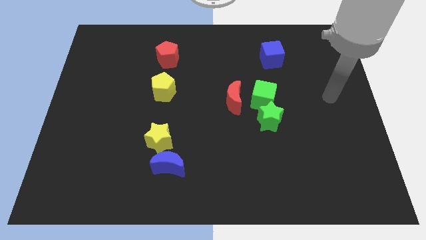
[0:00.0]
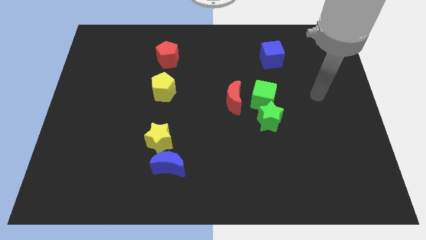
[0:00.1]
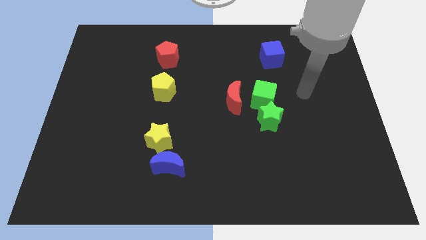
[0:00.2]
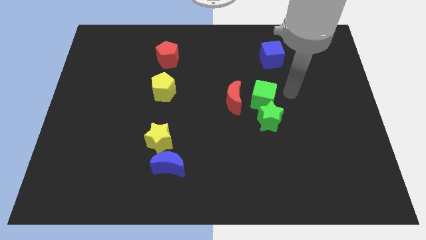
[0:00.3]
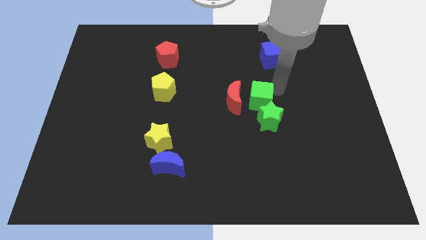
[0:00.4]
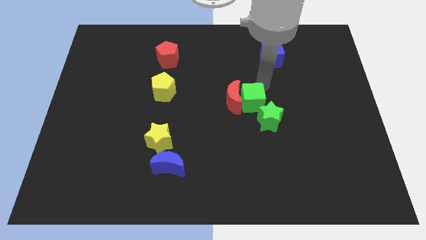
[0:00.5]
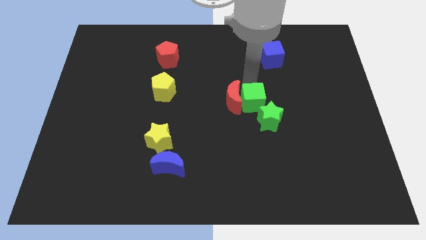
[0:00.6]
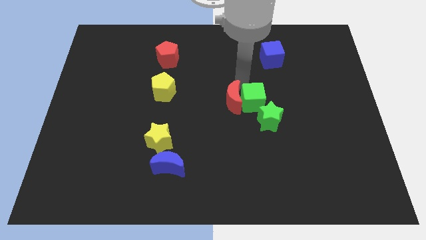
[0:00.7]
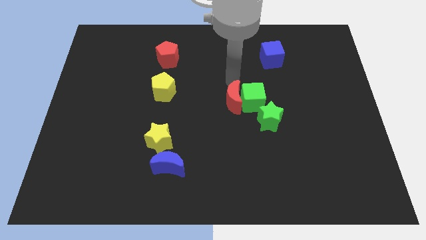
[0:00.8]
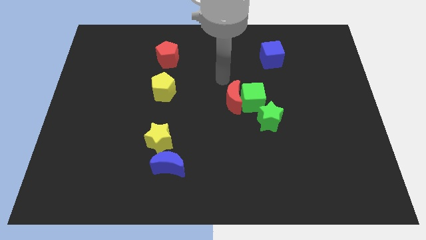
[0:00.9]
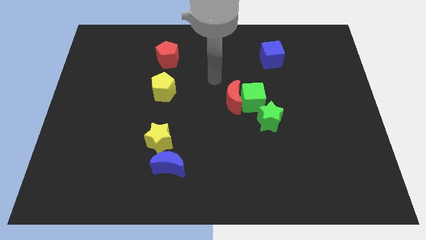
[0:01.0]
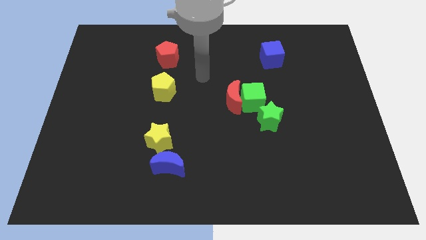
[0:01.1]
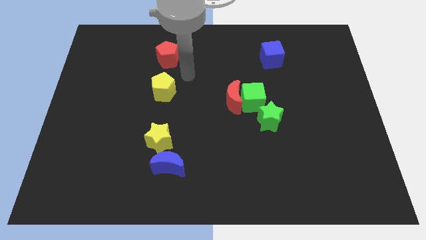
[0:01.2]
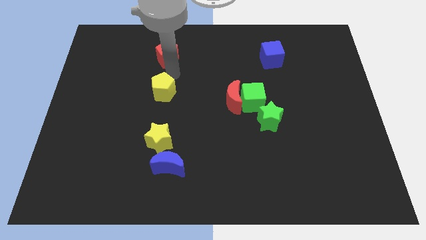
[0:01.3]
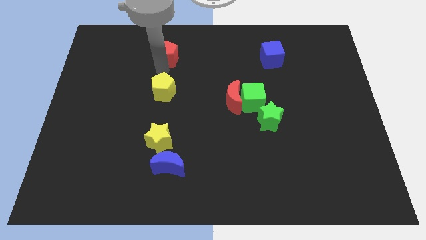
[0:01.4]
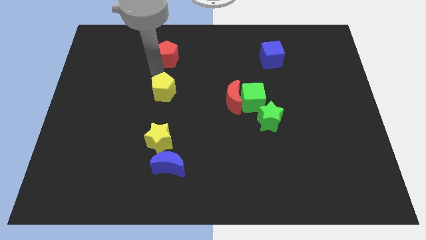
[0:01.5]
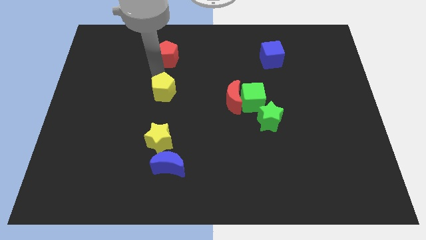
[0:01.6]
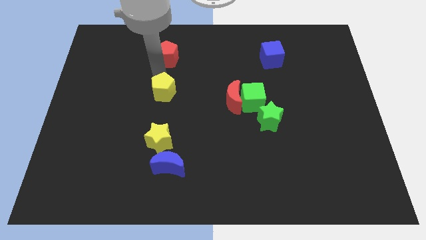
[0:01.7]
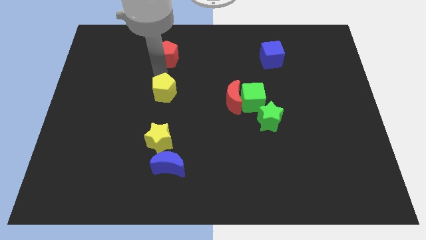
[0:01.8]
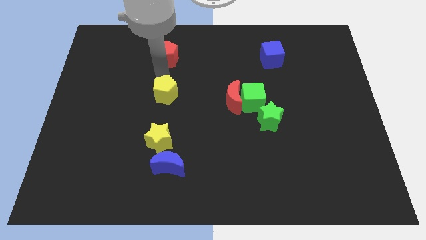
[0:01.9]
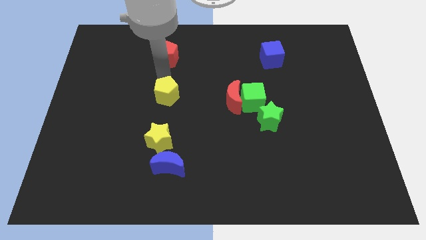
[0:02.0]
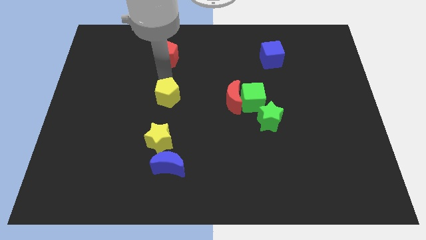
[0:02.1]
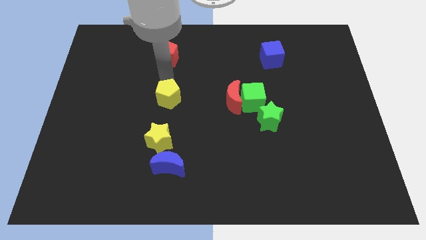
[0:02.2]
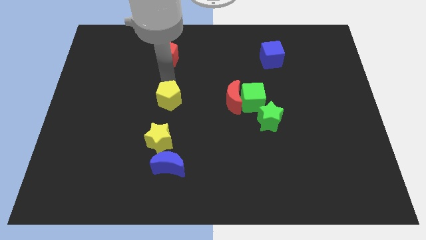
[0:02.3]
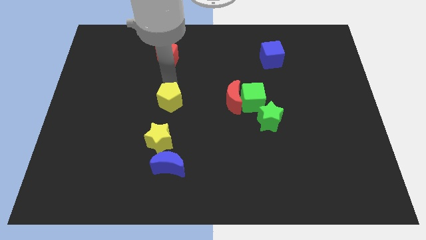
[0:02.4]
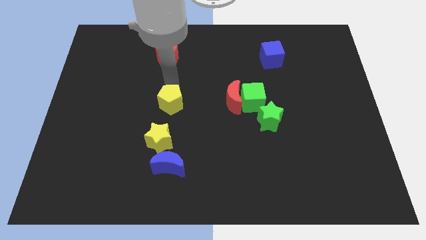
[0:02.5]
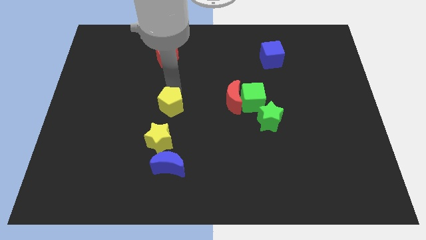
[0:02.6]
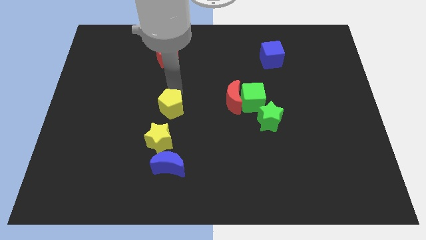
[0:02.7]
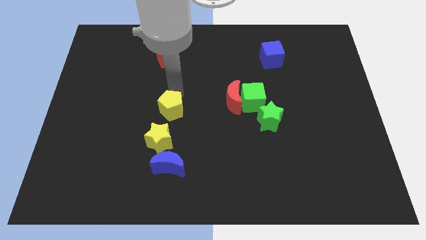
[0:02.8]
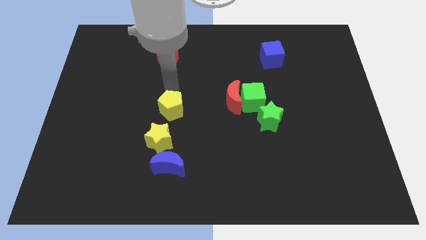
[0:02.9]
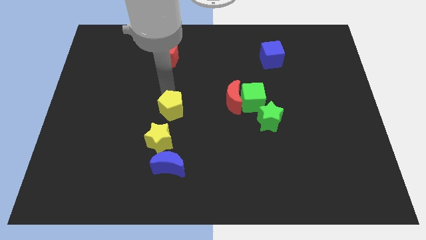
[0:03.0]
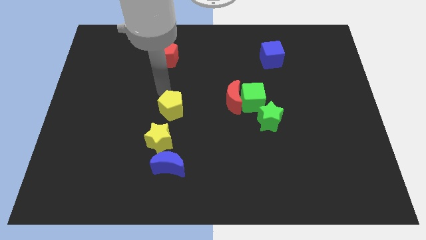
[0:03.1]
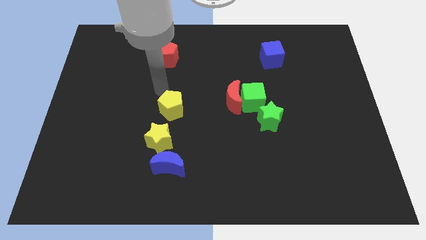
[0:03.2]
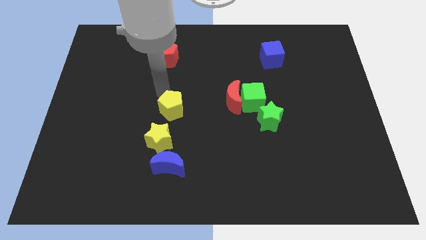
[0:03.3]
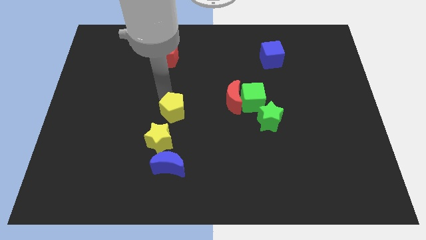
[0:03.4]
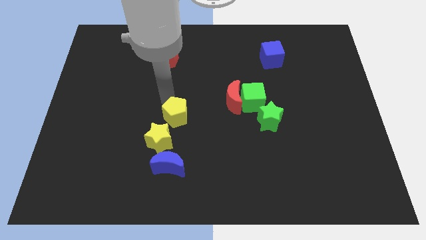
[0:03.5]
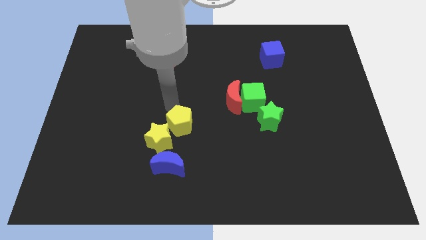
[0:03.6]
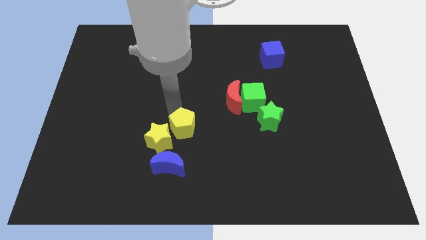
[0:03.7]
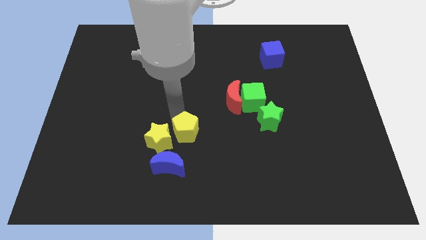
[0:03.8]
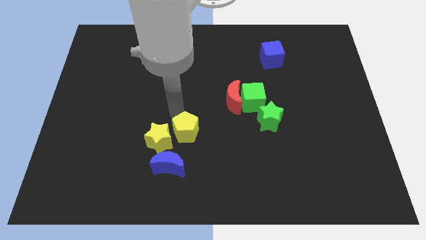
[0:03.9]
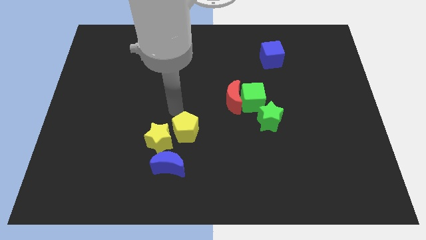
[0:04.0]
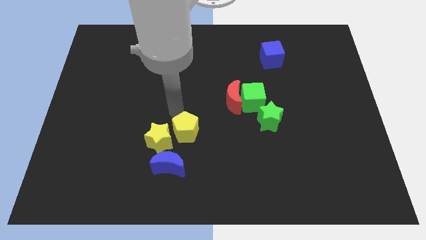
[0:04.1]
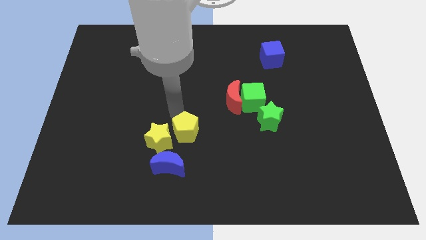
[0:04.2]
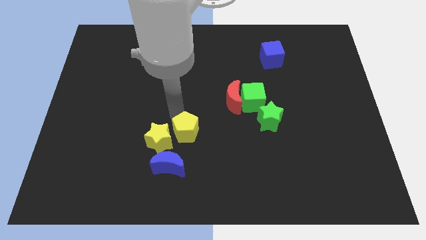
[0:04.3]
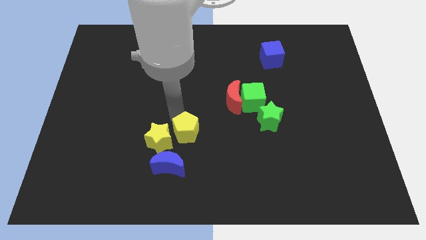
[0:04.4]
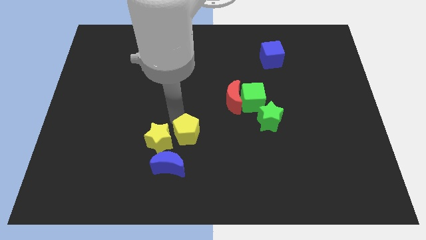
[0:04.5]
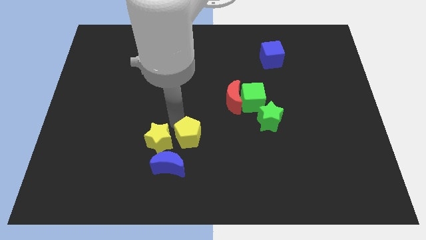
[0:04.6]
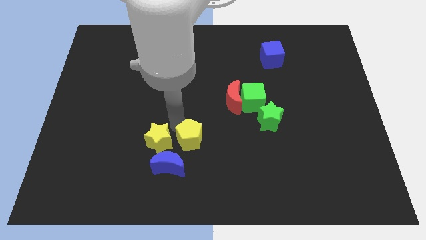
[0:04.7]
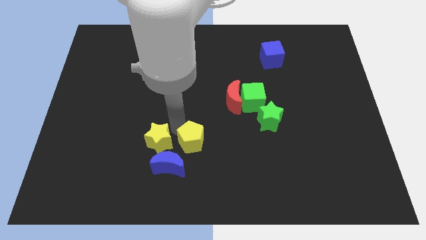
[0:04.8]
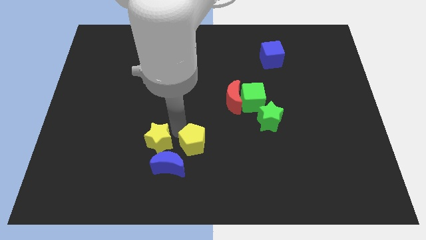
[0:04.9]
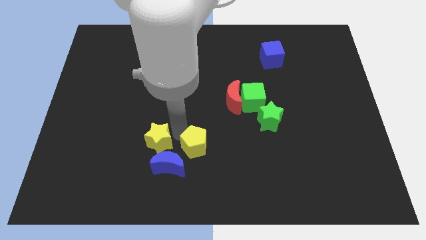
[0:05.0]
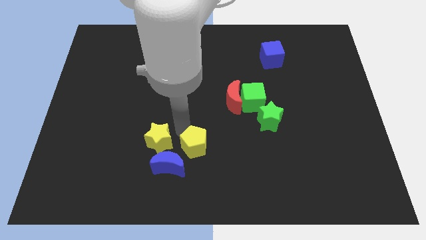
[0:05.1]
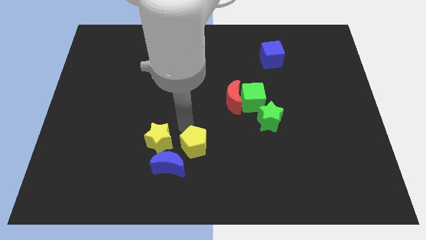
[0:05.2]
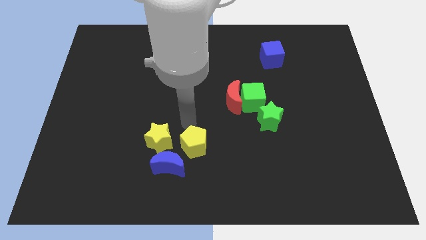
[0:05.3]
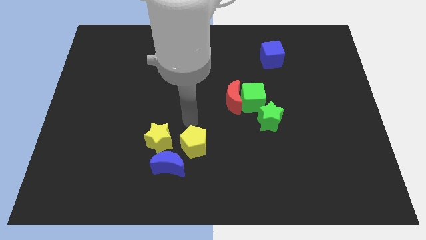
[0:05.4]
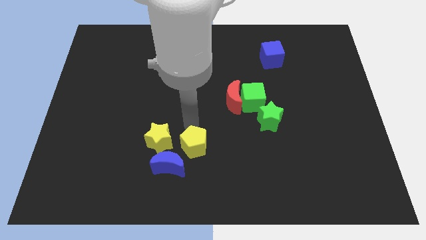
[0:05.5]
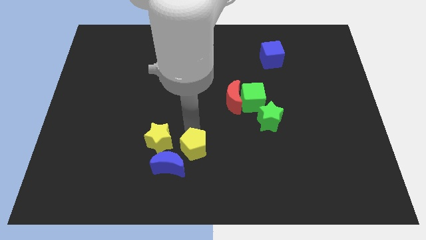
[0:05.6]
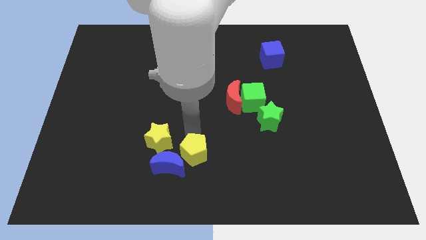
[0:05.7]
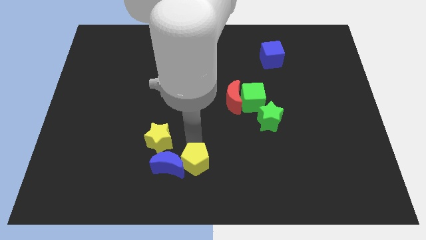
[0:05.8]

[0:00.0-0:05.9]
slide the yellow pentagon to the bottom side

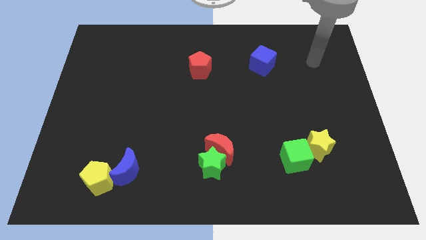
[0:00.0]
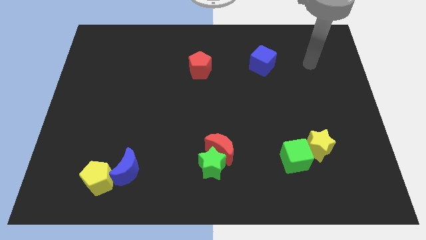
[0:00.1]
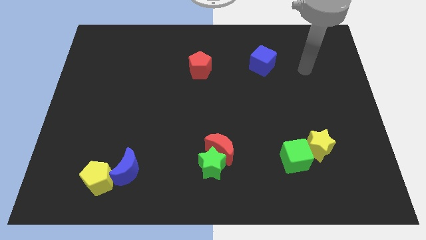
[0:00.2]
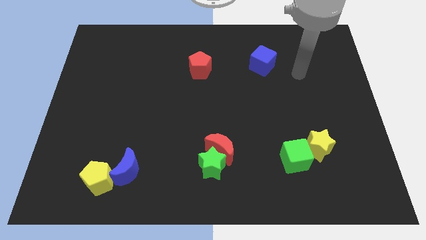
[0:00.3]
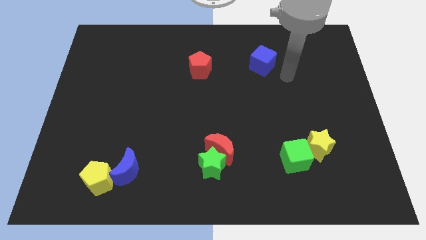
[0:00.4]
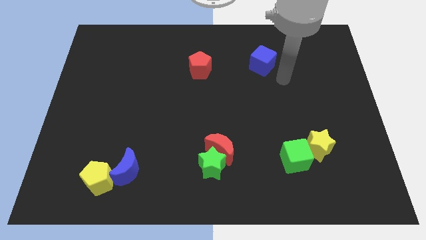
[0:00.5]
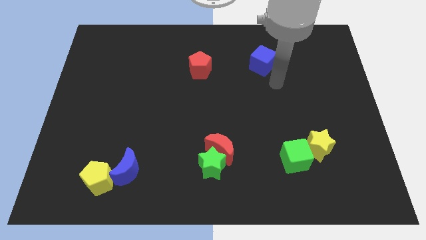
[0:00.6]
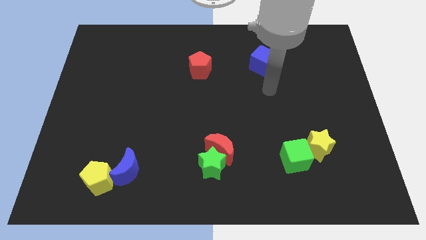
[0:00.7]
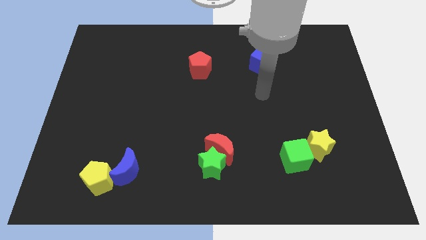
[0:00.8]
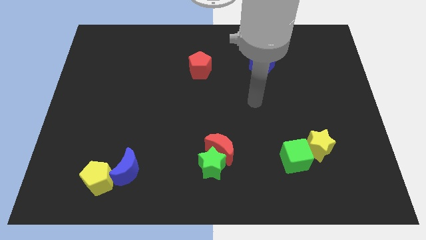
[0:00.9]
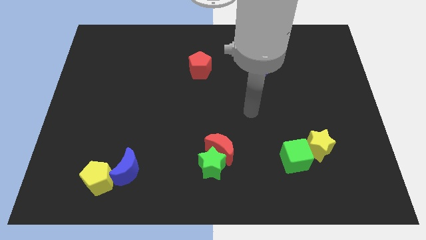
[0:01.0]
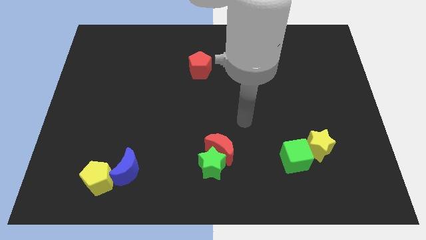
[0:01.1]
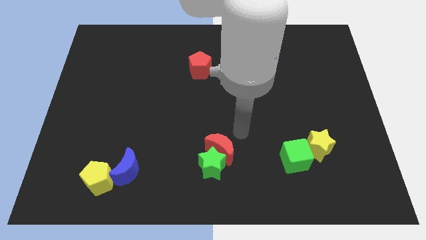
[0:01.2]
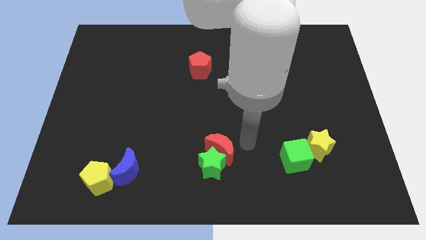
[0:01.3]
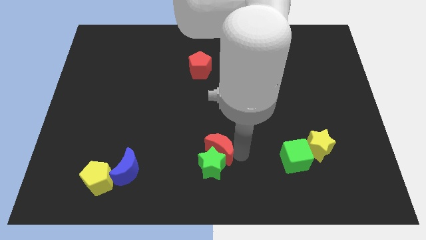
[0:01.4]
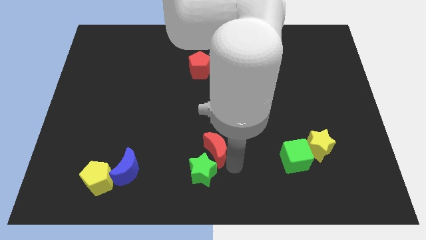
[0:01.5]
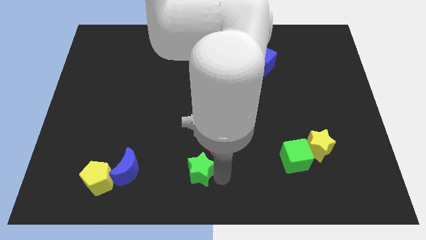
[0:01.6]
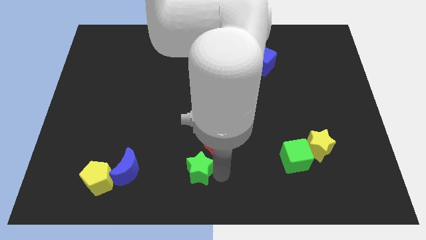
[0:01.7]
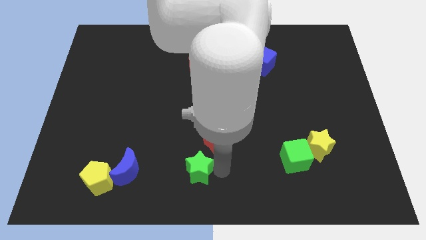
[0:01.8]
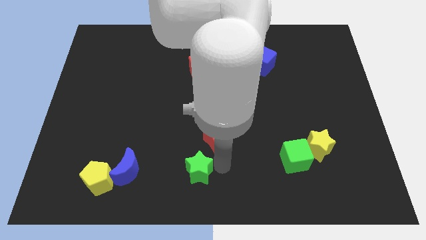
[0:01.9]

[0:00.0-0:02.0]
push the red moon to the middle
